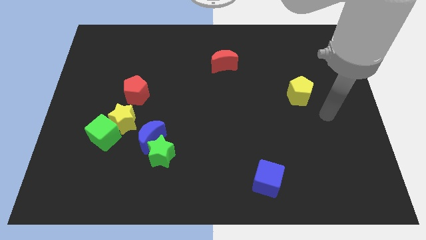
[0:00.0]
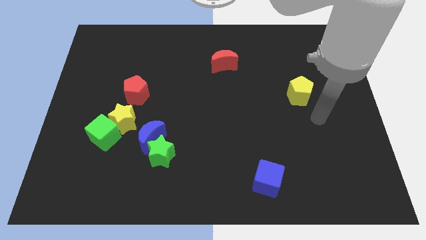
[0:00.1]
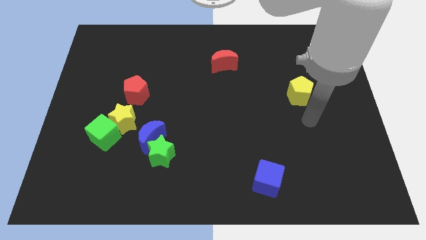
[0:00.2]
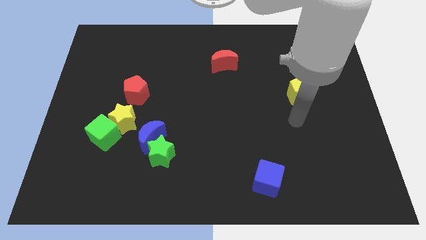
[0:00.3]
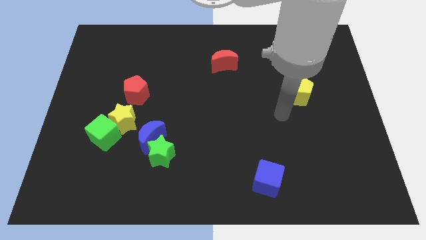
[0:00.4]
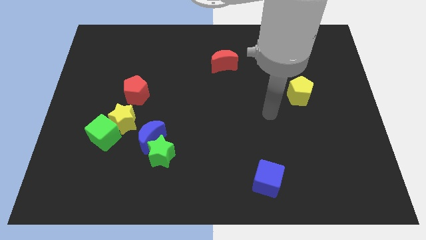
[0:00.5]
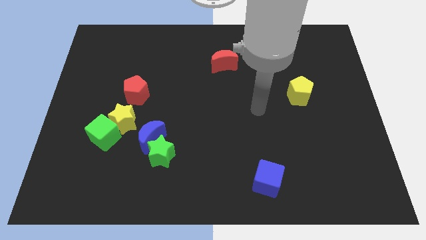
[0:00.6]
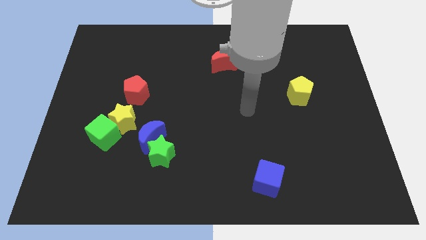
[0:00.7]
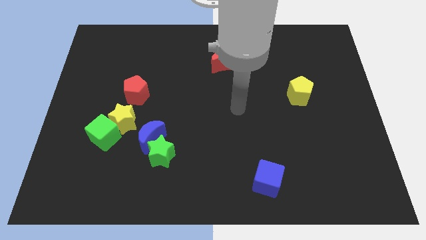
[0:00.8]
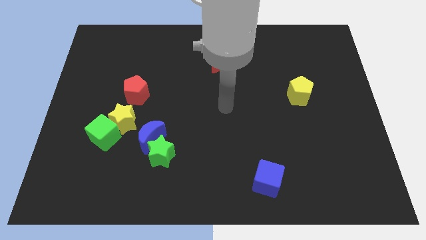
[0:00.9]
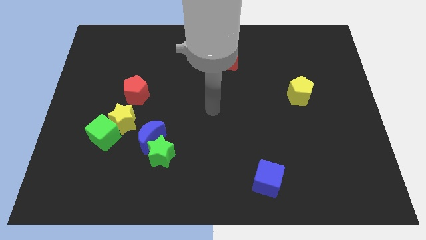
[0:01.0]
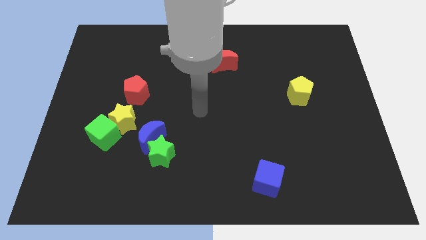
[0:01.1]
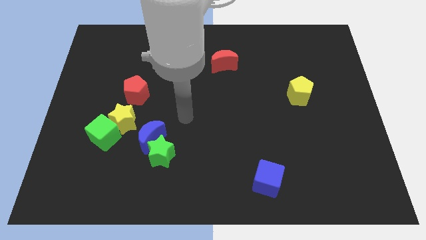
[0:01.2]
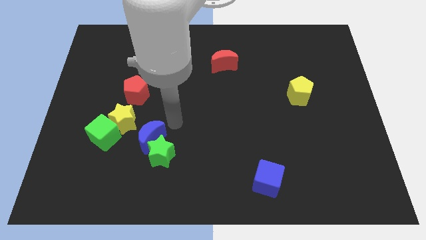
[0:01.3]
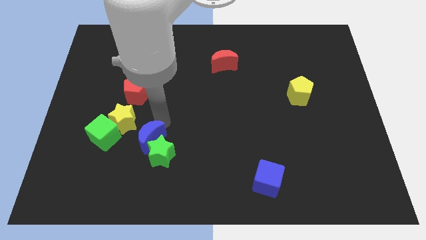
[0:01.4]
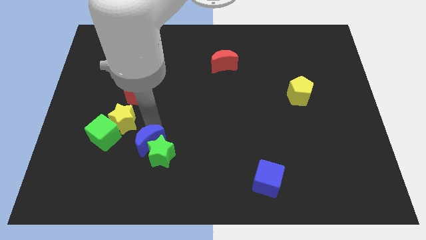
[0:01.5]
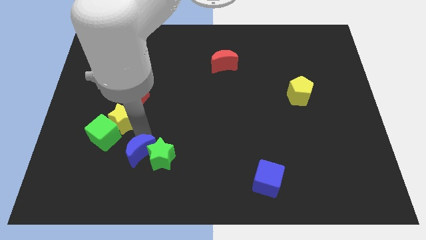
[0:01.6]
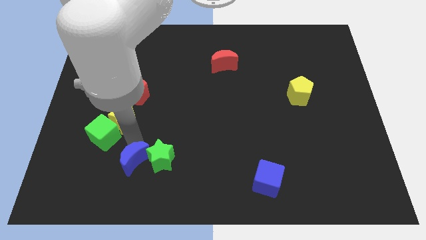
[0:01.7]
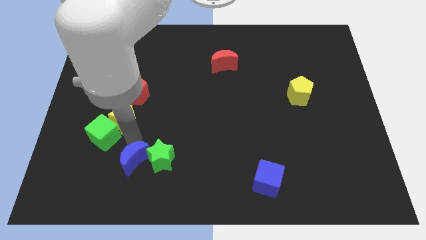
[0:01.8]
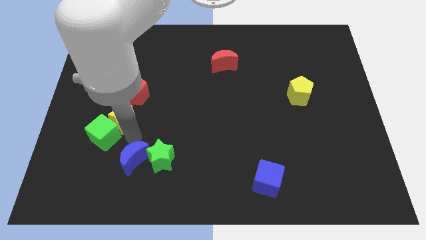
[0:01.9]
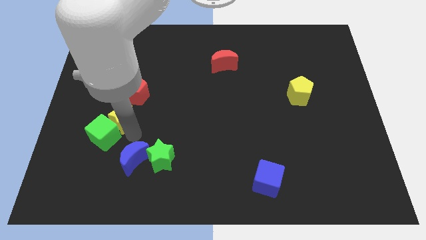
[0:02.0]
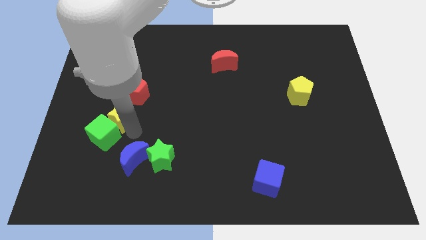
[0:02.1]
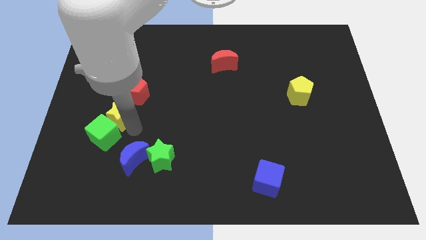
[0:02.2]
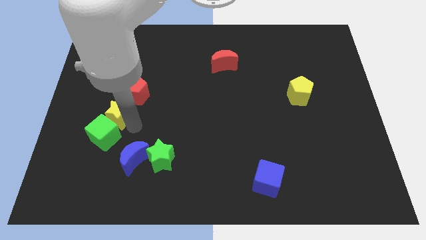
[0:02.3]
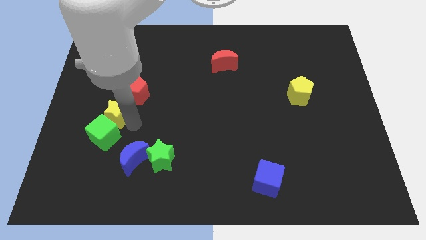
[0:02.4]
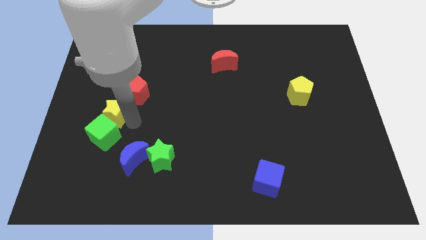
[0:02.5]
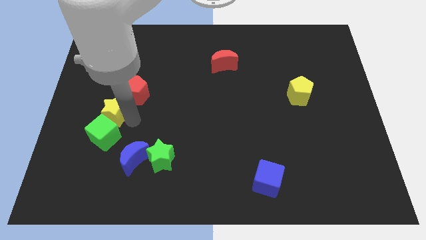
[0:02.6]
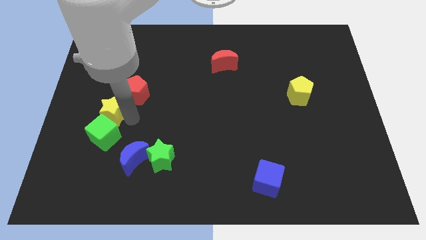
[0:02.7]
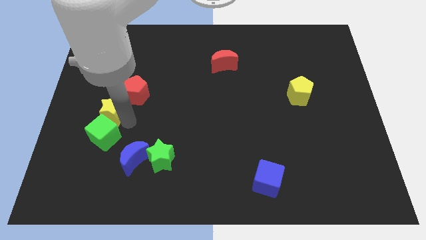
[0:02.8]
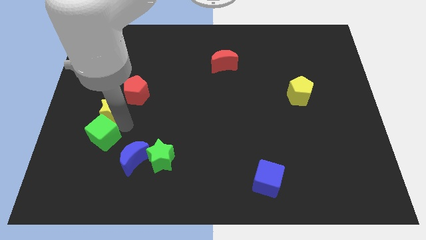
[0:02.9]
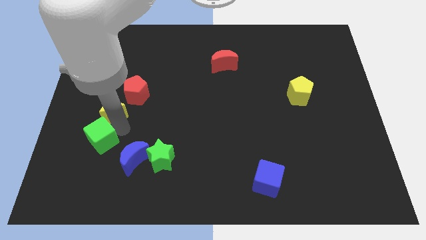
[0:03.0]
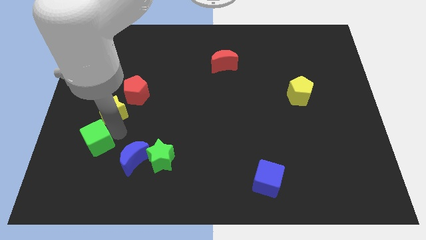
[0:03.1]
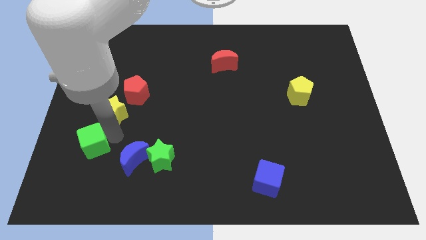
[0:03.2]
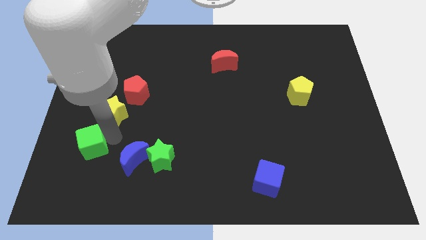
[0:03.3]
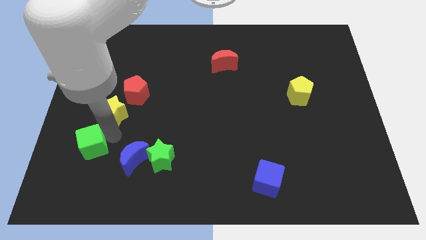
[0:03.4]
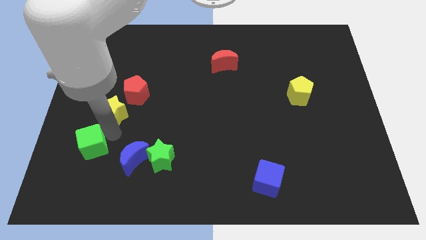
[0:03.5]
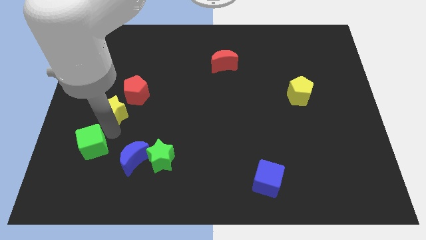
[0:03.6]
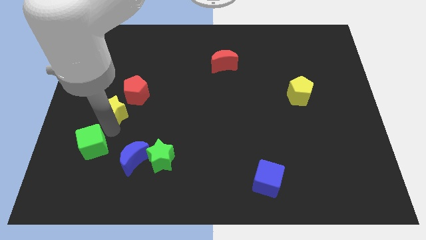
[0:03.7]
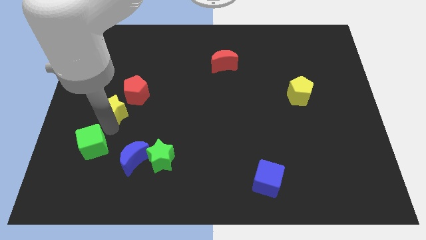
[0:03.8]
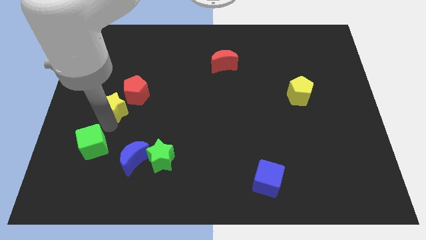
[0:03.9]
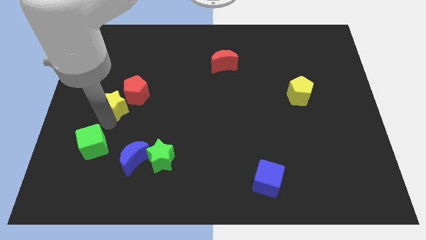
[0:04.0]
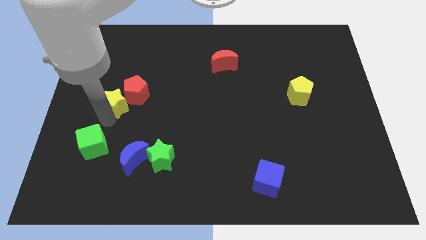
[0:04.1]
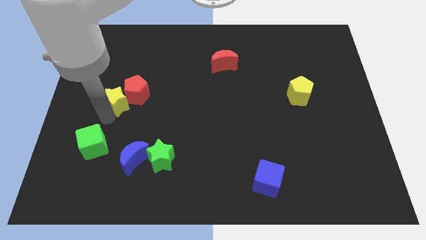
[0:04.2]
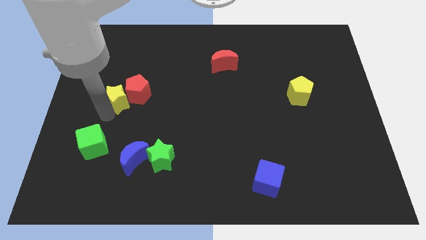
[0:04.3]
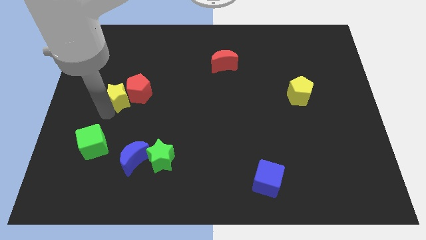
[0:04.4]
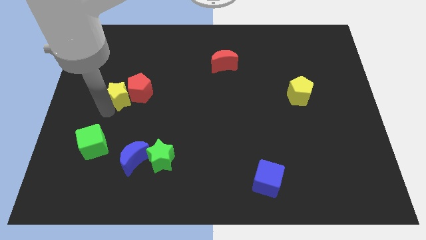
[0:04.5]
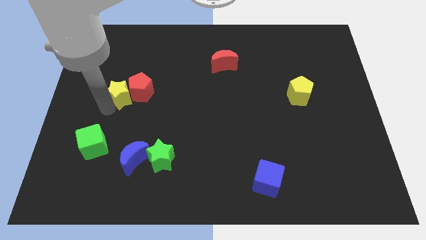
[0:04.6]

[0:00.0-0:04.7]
move the yellow star up somewhat

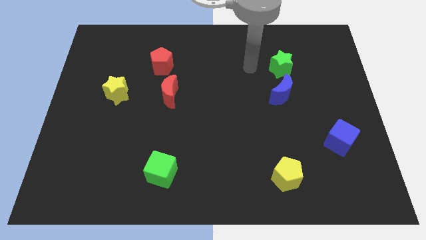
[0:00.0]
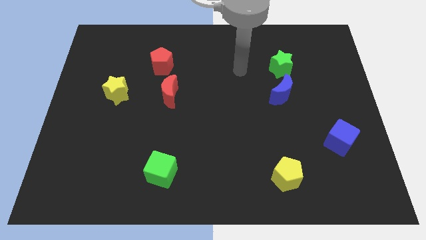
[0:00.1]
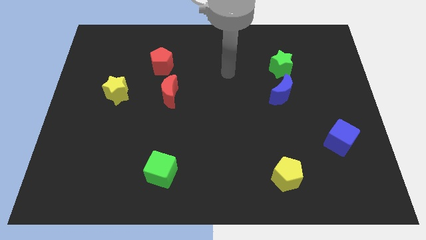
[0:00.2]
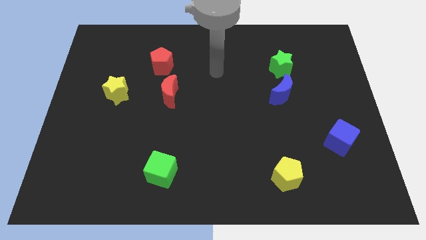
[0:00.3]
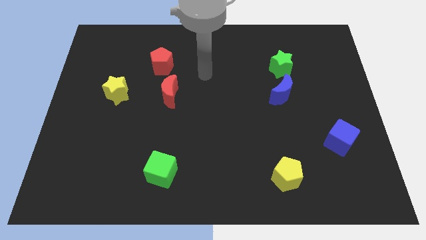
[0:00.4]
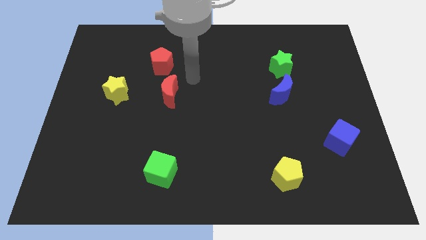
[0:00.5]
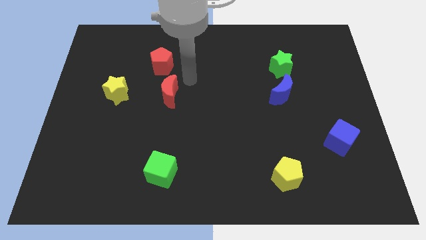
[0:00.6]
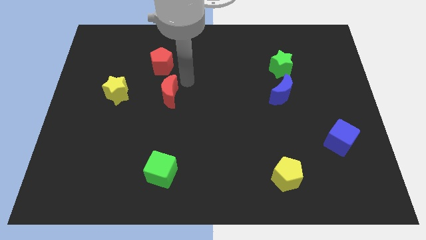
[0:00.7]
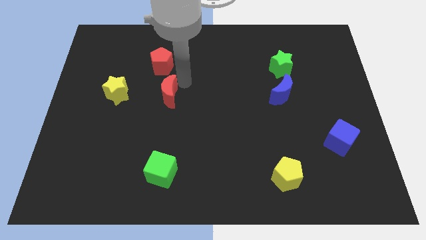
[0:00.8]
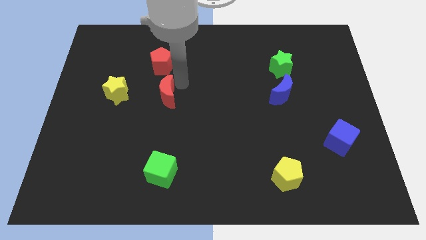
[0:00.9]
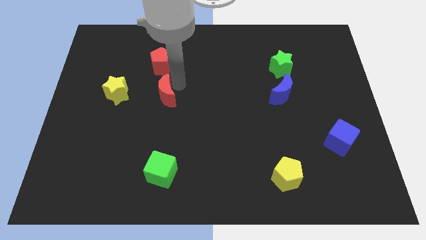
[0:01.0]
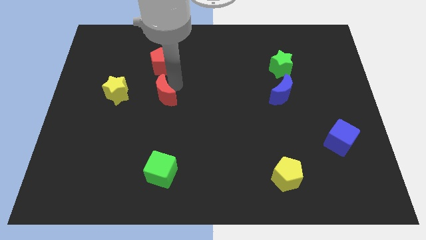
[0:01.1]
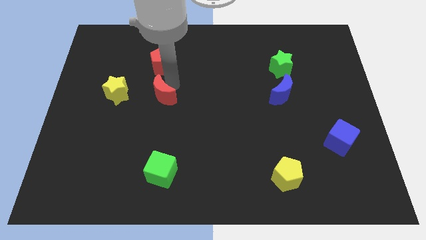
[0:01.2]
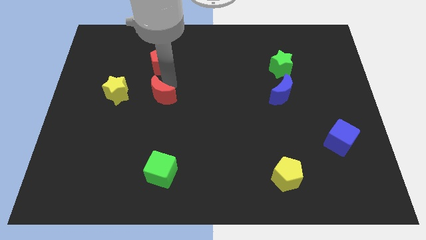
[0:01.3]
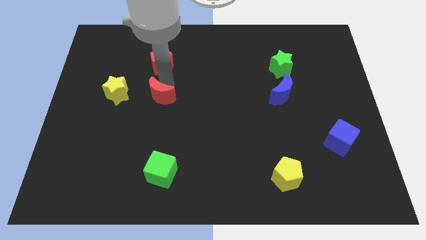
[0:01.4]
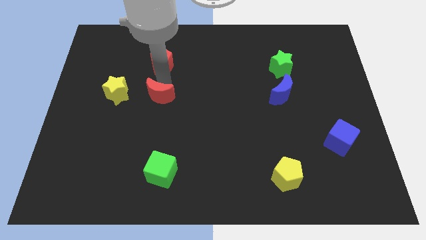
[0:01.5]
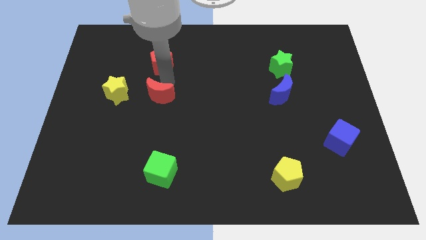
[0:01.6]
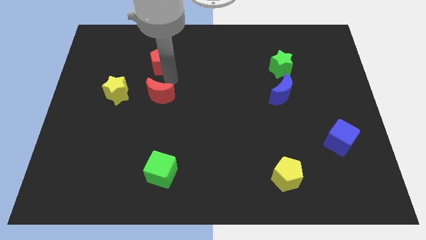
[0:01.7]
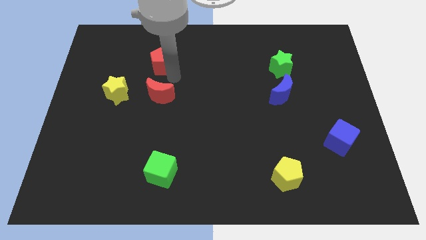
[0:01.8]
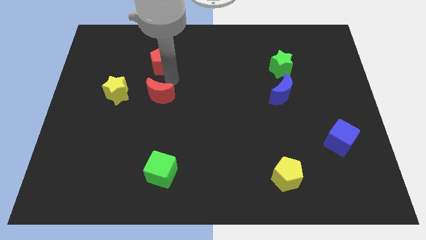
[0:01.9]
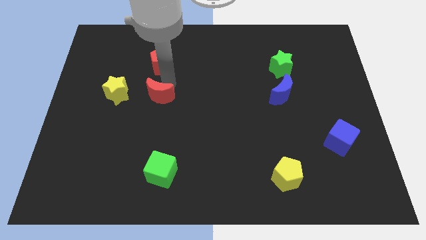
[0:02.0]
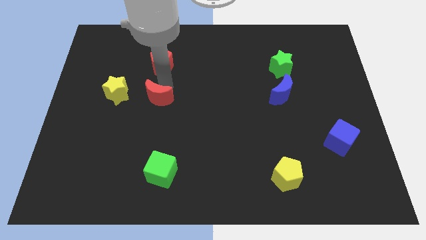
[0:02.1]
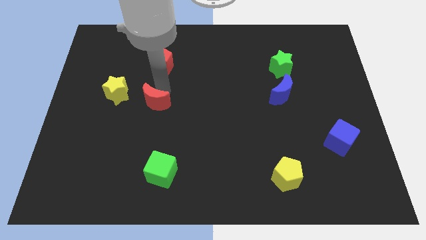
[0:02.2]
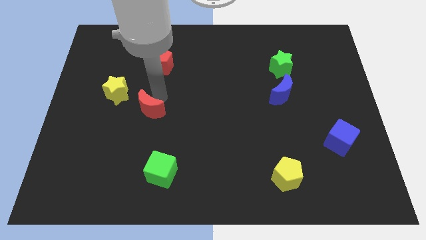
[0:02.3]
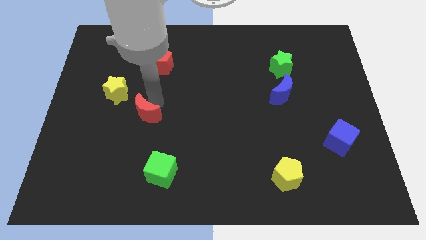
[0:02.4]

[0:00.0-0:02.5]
slide the red moon a bit down and to the left diagonally

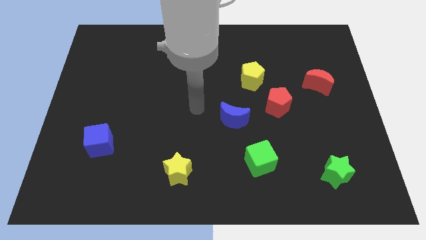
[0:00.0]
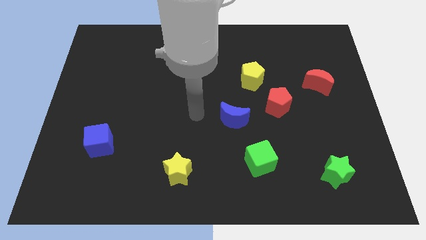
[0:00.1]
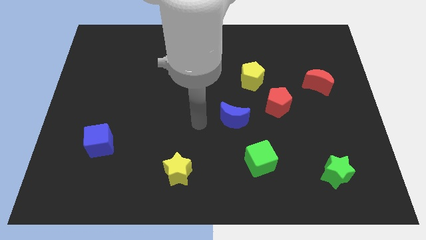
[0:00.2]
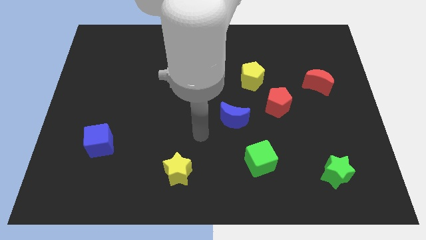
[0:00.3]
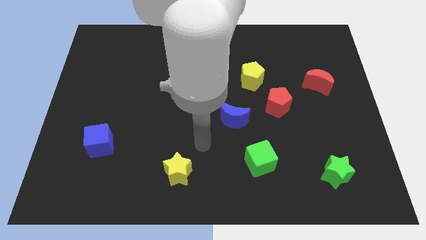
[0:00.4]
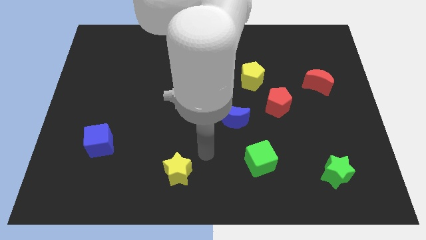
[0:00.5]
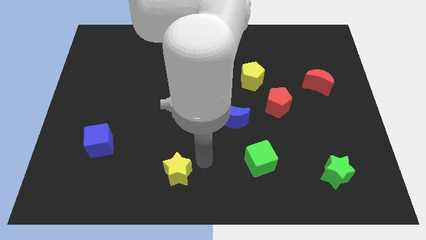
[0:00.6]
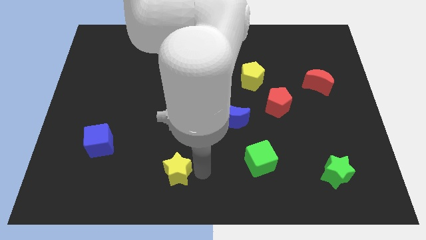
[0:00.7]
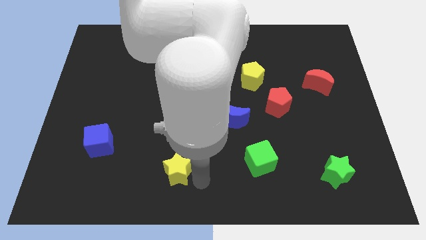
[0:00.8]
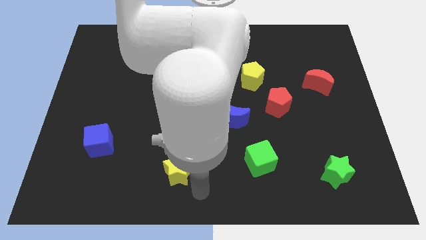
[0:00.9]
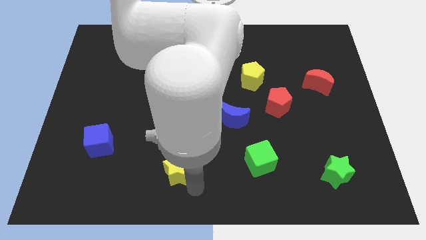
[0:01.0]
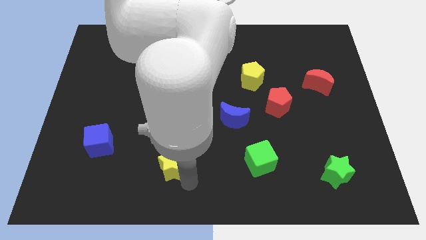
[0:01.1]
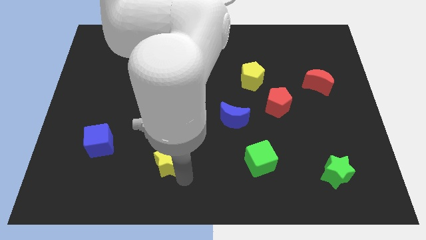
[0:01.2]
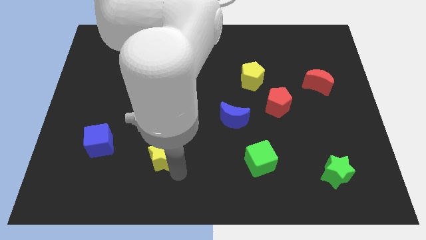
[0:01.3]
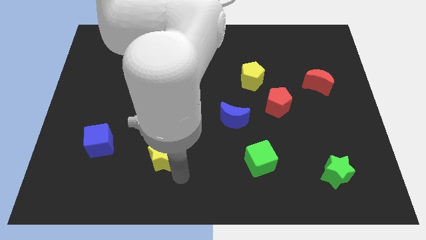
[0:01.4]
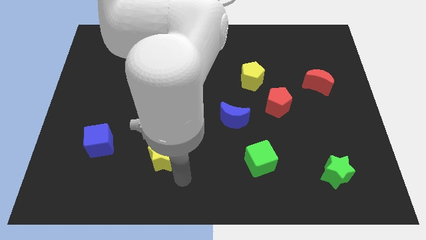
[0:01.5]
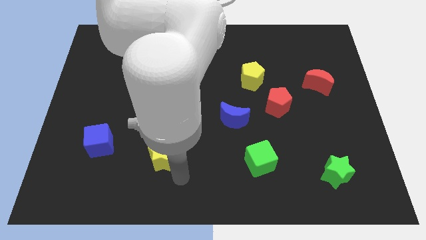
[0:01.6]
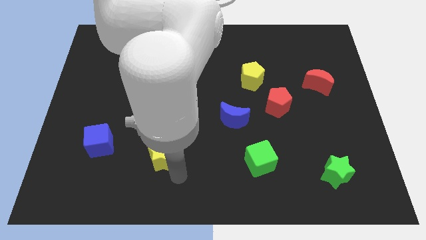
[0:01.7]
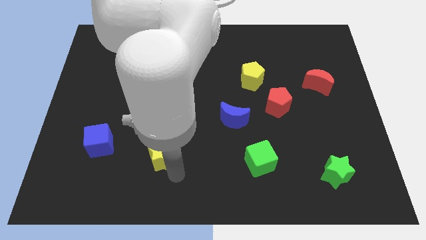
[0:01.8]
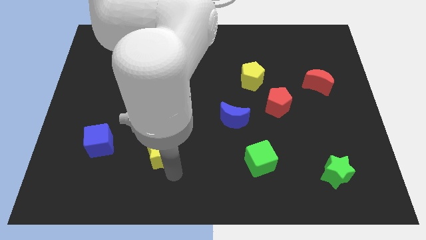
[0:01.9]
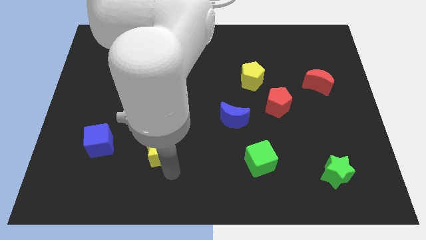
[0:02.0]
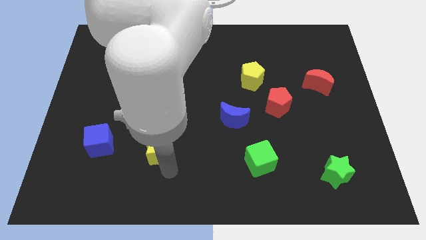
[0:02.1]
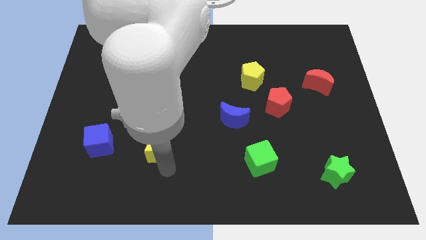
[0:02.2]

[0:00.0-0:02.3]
move the yellow star a little bit up and then left
